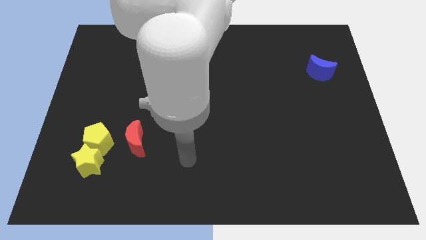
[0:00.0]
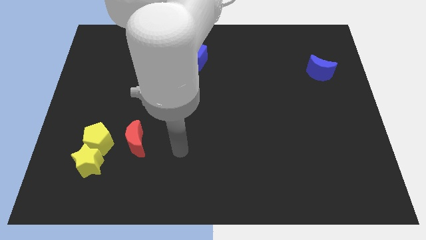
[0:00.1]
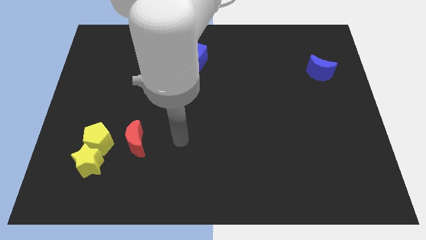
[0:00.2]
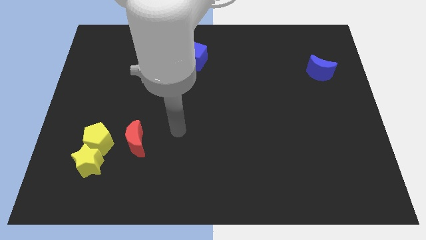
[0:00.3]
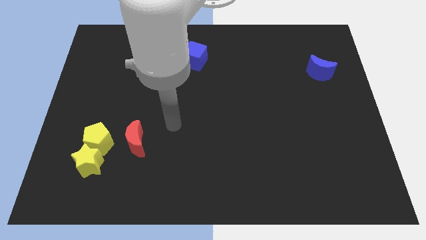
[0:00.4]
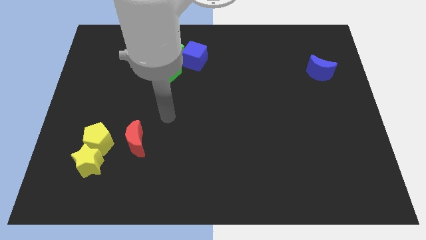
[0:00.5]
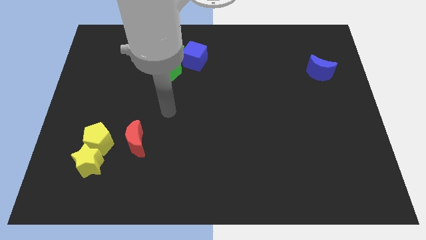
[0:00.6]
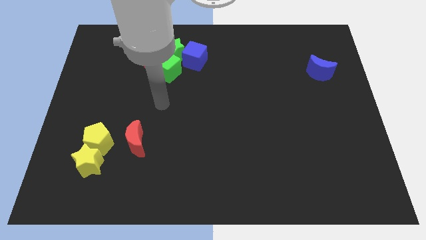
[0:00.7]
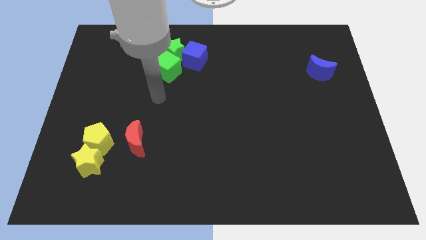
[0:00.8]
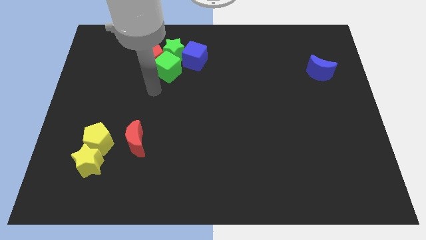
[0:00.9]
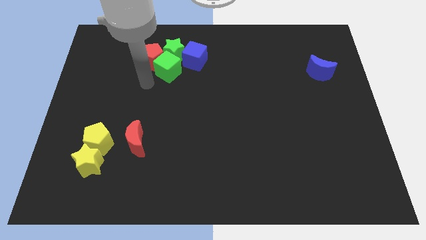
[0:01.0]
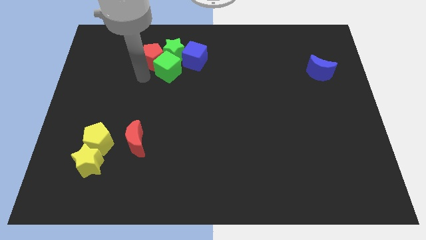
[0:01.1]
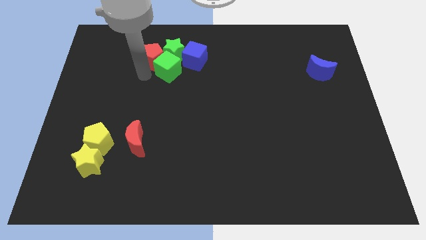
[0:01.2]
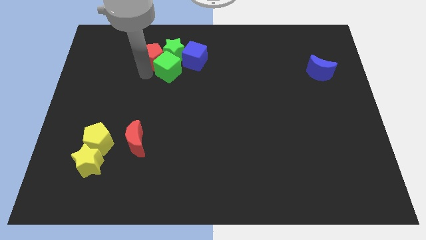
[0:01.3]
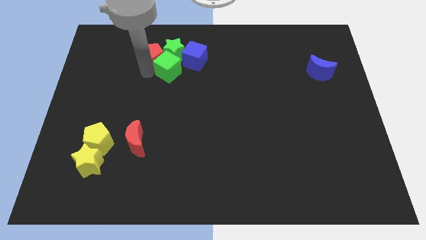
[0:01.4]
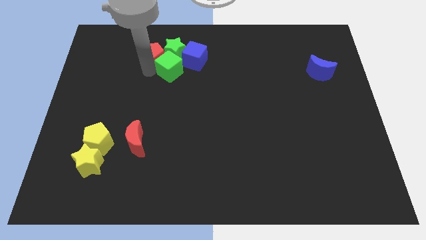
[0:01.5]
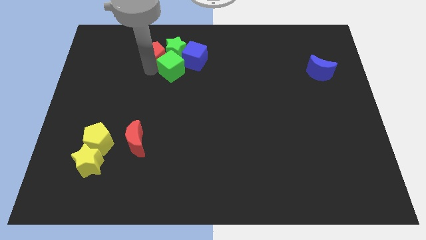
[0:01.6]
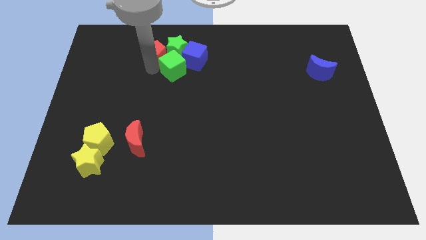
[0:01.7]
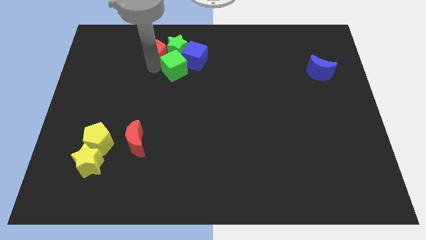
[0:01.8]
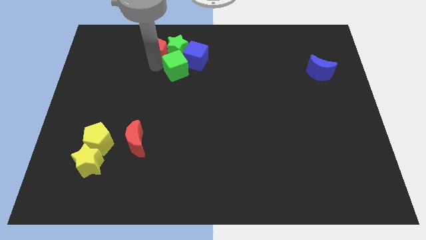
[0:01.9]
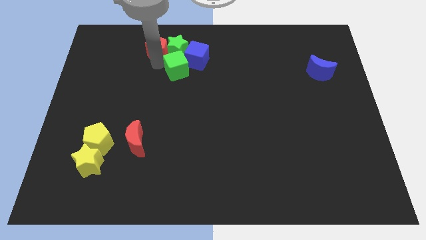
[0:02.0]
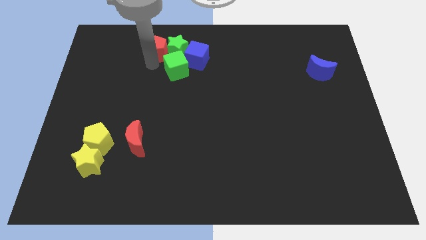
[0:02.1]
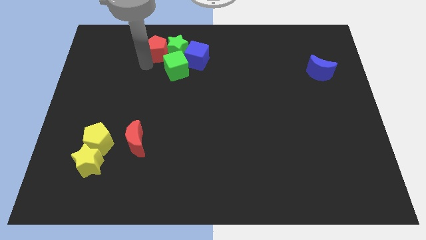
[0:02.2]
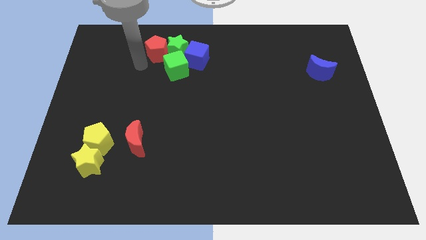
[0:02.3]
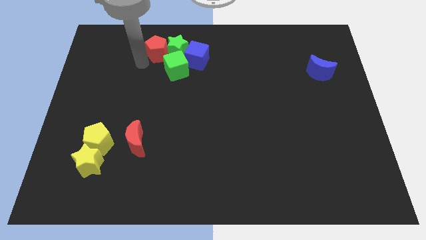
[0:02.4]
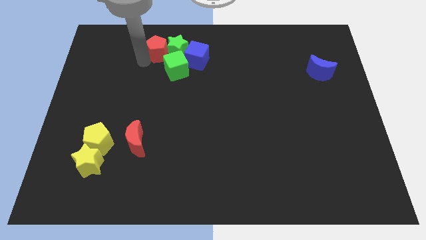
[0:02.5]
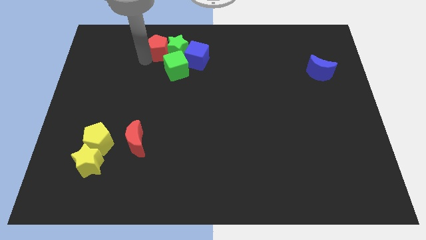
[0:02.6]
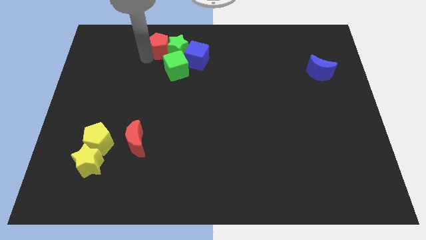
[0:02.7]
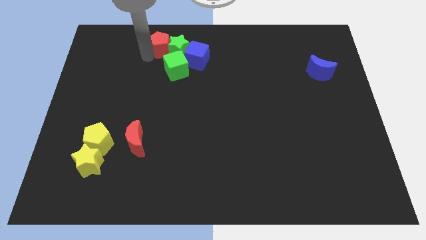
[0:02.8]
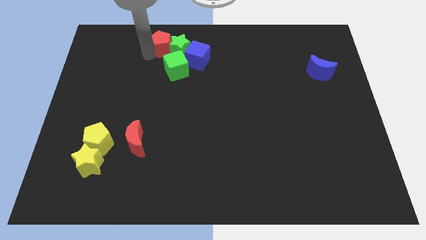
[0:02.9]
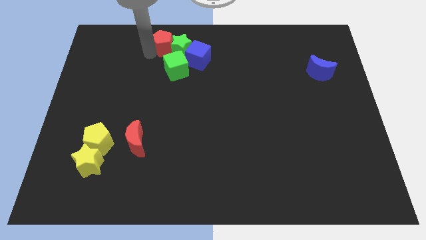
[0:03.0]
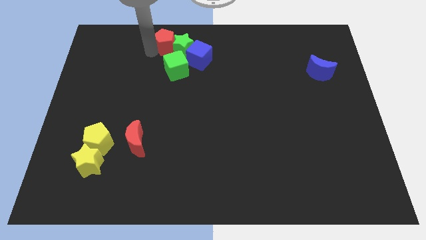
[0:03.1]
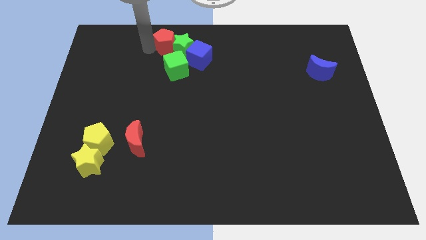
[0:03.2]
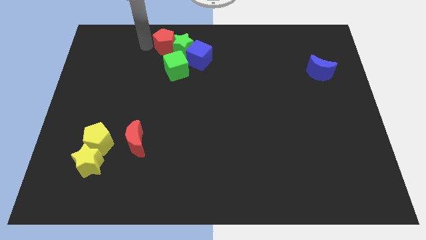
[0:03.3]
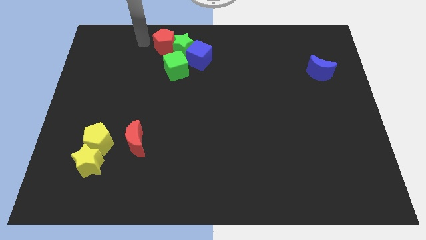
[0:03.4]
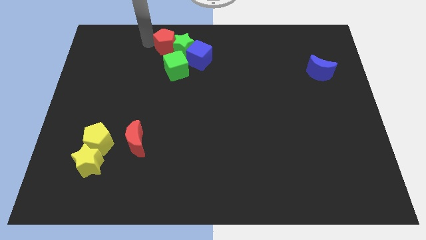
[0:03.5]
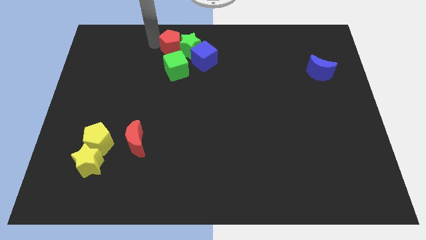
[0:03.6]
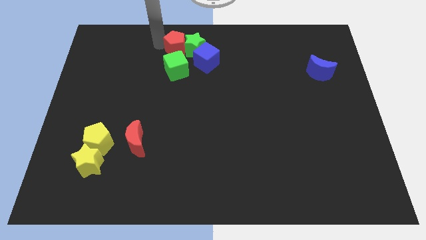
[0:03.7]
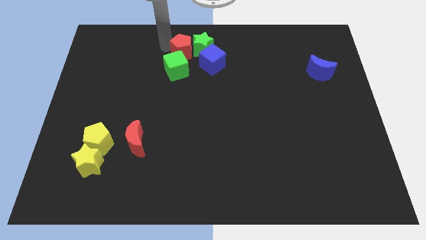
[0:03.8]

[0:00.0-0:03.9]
move the red pentagon right slightly

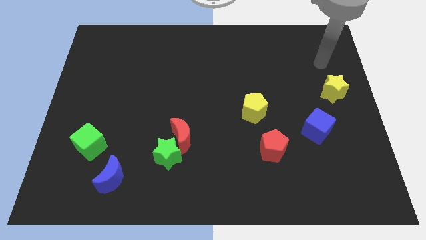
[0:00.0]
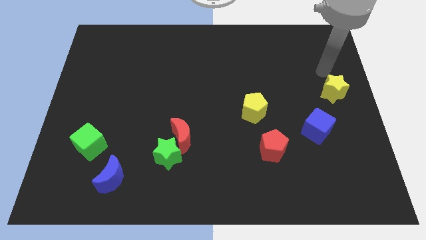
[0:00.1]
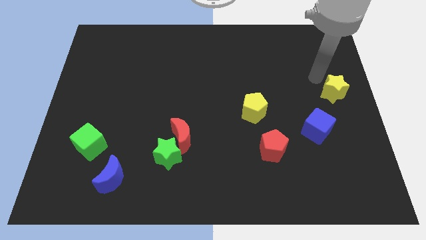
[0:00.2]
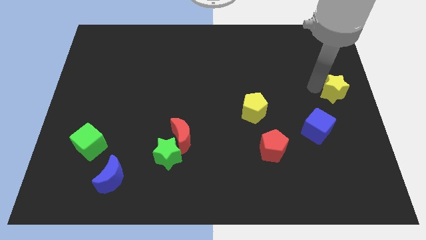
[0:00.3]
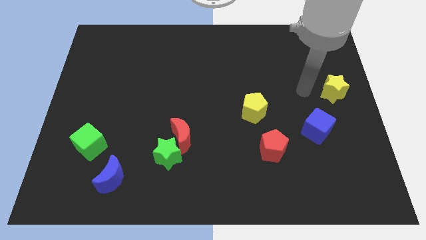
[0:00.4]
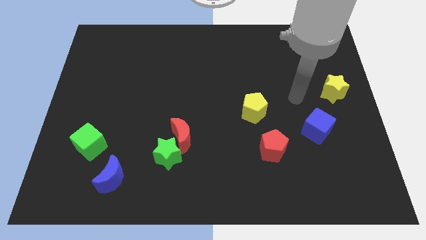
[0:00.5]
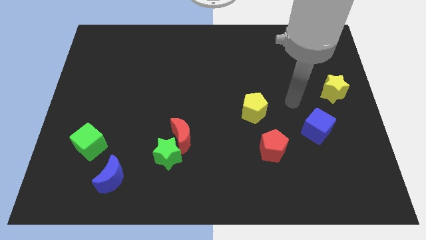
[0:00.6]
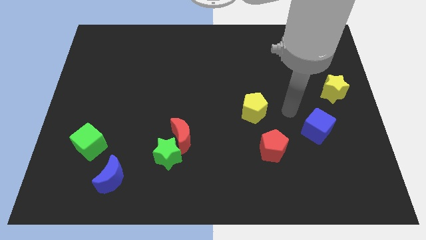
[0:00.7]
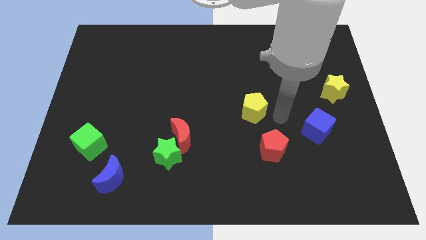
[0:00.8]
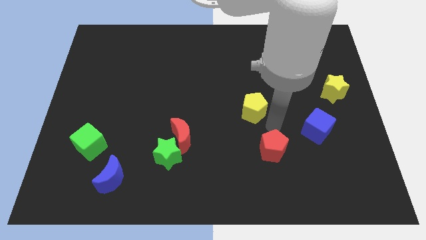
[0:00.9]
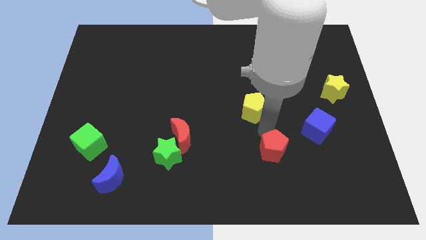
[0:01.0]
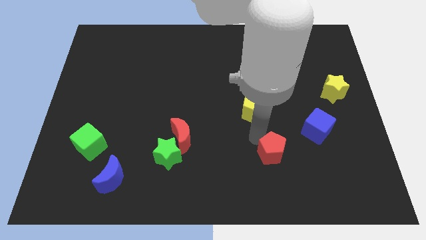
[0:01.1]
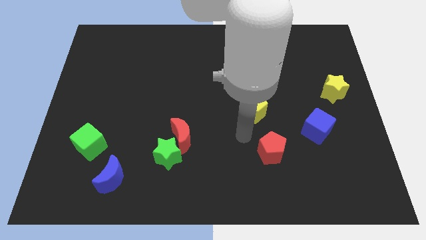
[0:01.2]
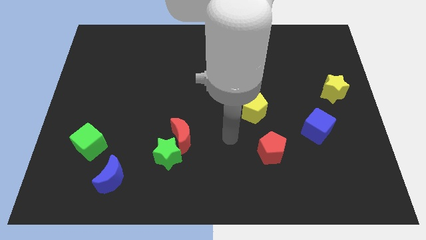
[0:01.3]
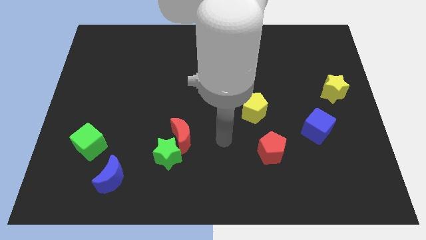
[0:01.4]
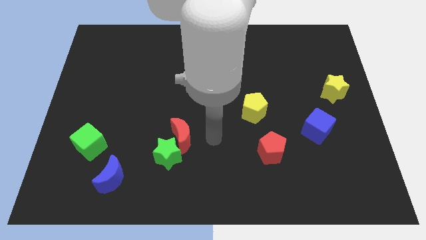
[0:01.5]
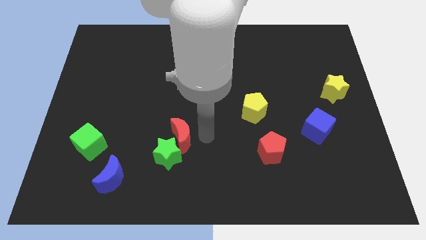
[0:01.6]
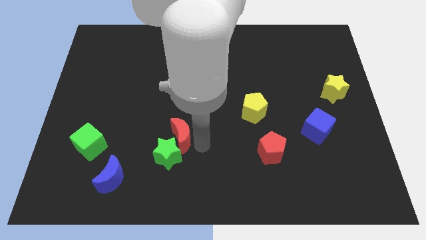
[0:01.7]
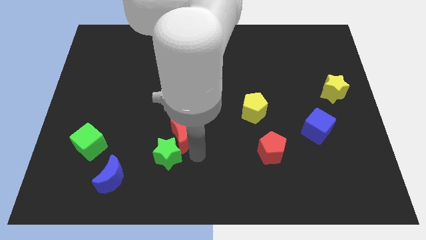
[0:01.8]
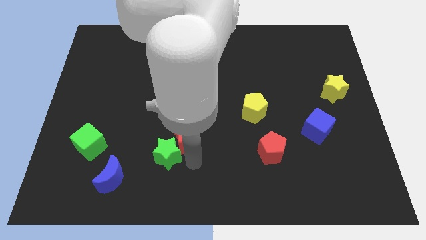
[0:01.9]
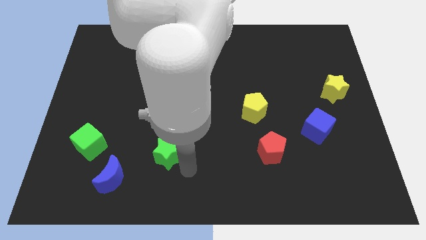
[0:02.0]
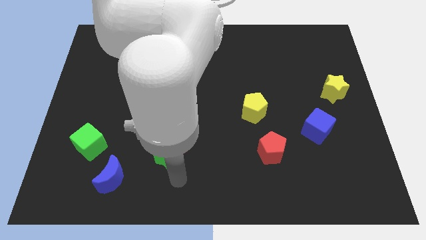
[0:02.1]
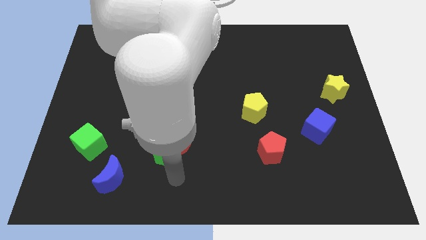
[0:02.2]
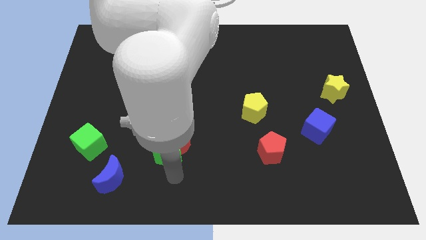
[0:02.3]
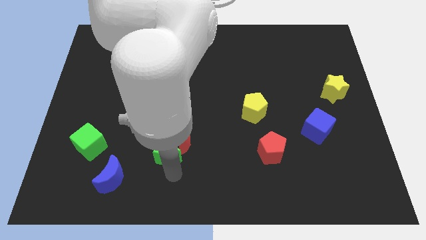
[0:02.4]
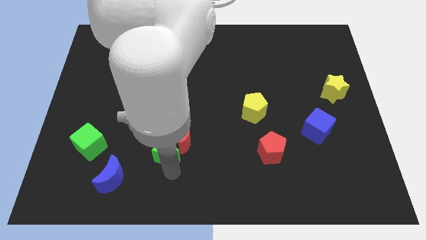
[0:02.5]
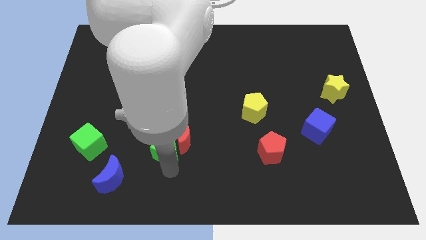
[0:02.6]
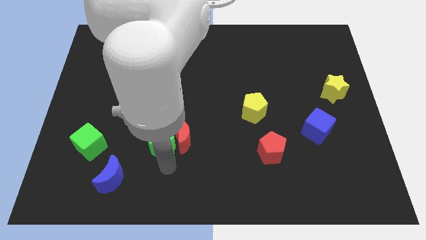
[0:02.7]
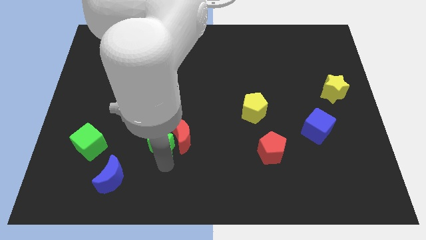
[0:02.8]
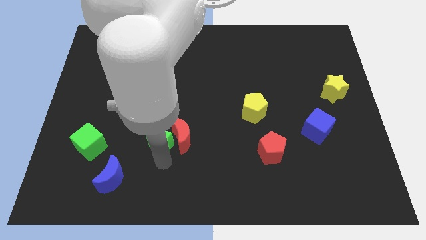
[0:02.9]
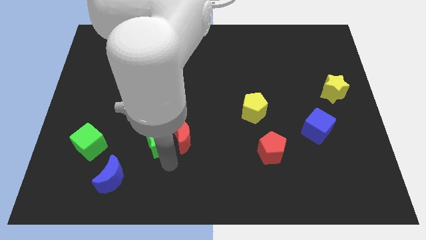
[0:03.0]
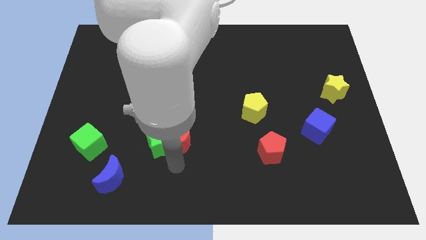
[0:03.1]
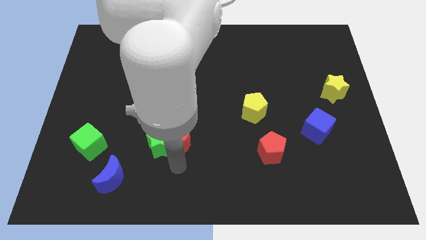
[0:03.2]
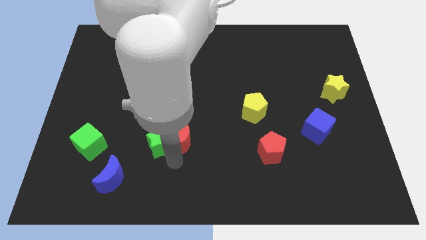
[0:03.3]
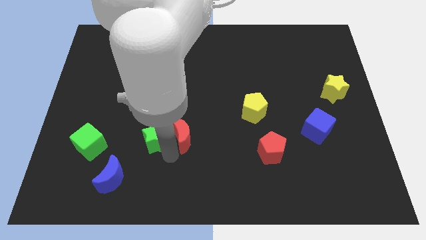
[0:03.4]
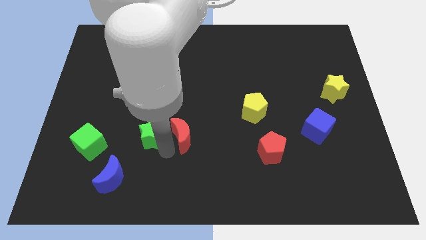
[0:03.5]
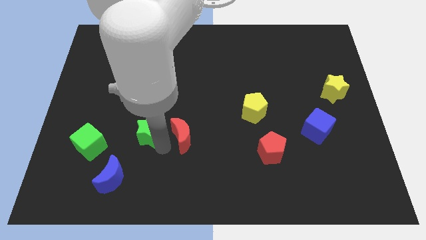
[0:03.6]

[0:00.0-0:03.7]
slightly move the green star up and left

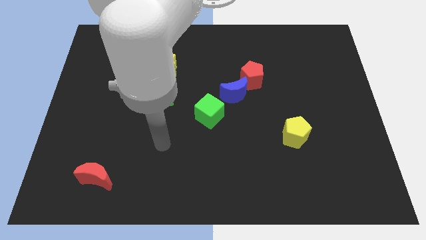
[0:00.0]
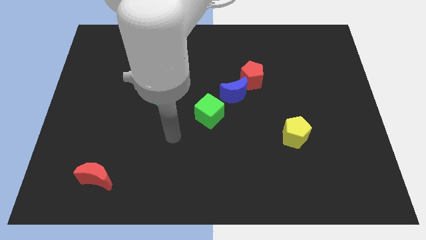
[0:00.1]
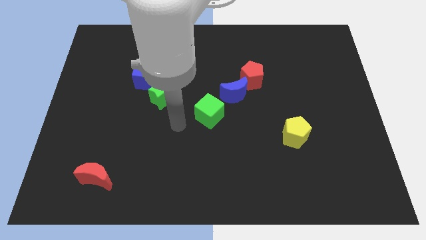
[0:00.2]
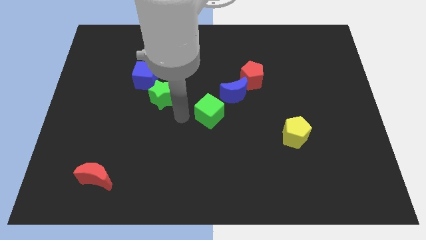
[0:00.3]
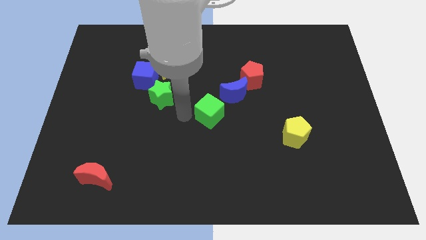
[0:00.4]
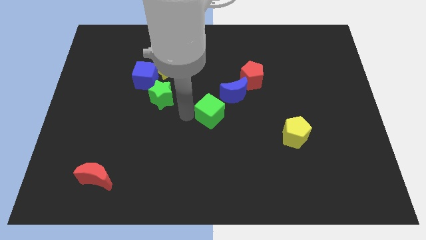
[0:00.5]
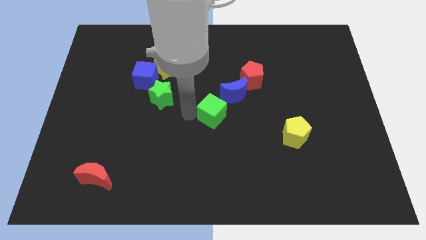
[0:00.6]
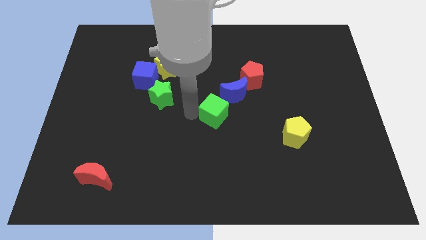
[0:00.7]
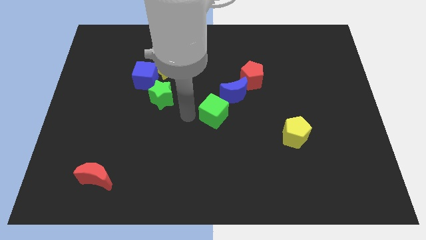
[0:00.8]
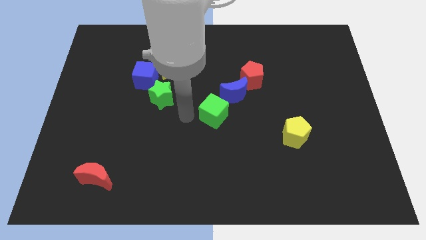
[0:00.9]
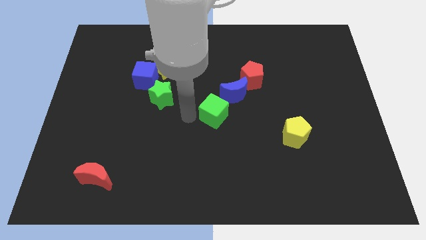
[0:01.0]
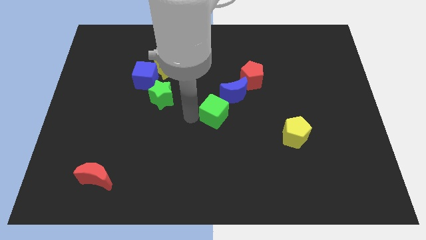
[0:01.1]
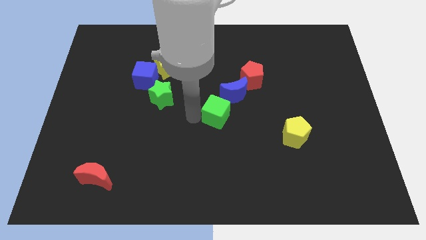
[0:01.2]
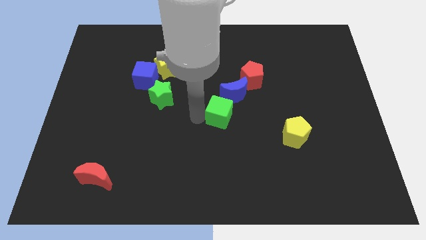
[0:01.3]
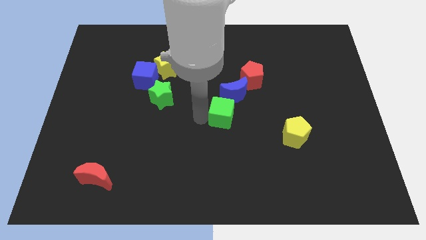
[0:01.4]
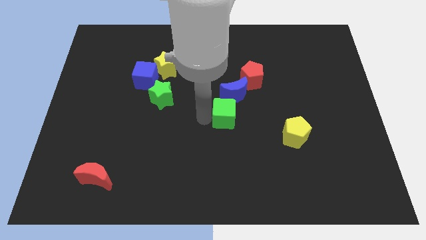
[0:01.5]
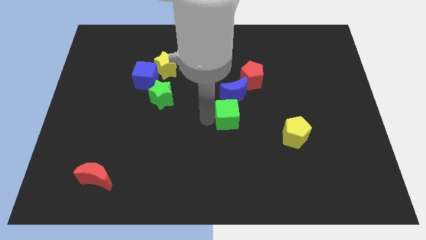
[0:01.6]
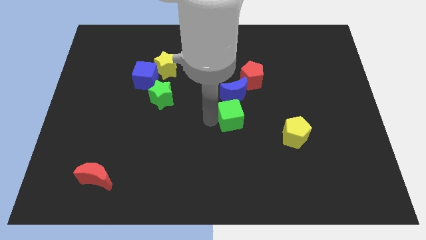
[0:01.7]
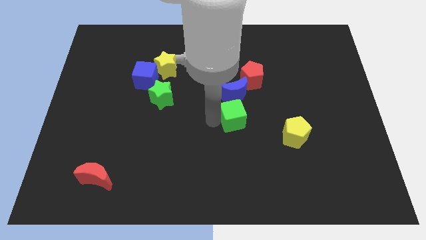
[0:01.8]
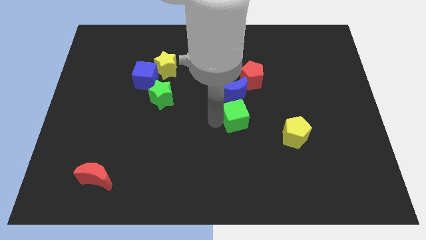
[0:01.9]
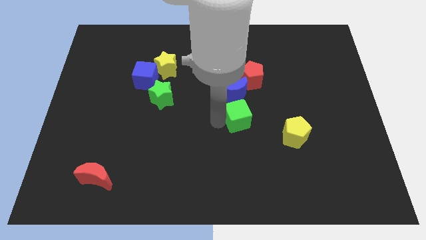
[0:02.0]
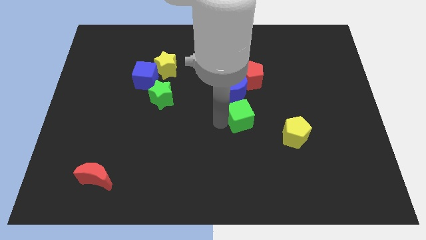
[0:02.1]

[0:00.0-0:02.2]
slide the green cube to the right a little
